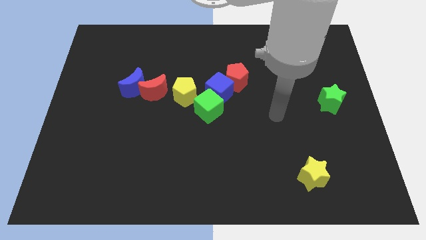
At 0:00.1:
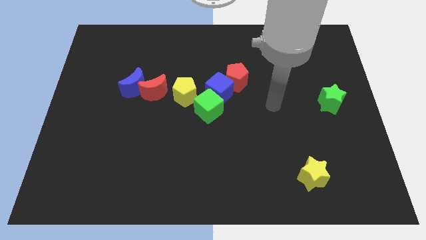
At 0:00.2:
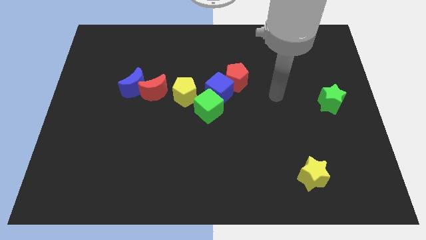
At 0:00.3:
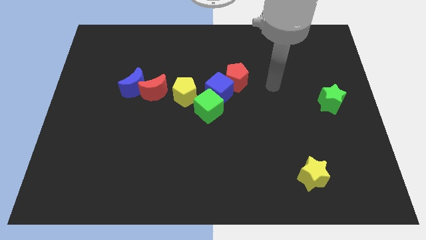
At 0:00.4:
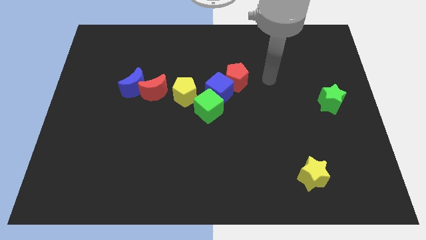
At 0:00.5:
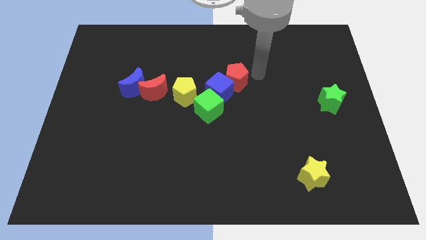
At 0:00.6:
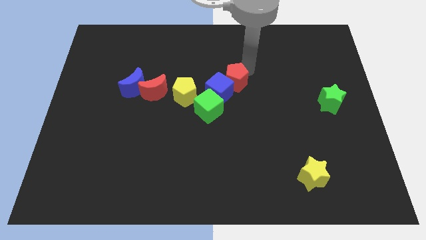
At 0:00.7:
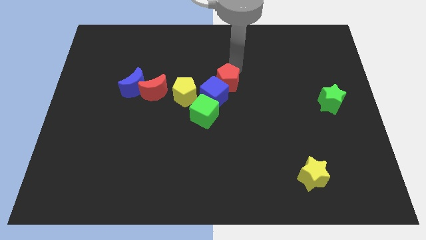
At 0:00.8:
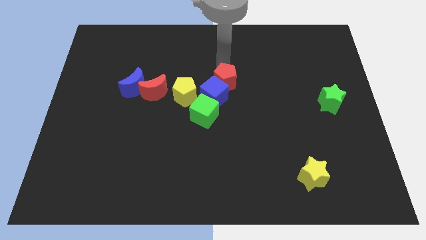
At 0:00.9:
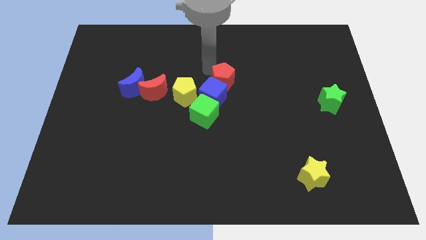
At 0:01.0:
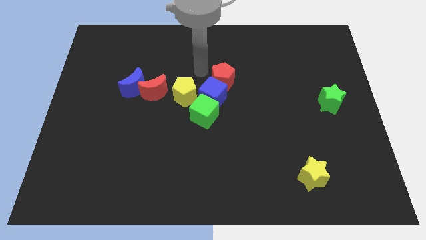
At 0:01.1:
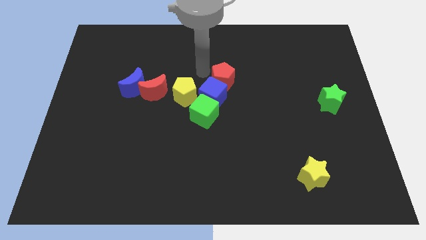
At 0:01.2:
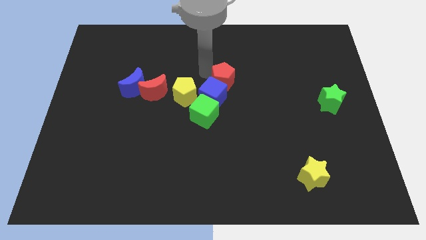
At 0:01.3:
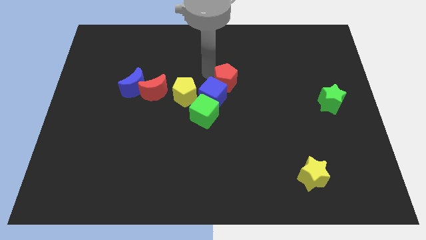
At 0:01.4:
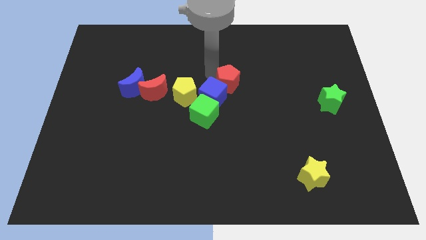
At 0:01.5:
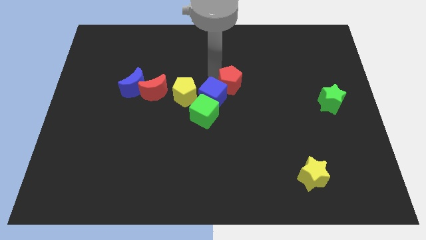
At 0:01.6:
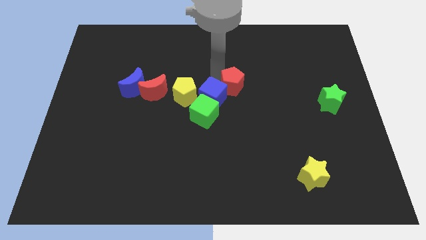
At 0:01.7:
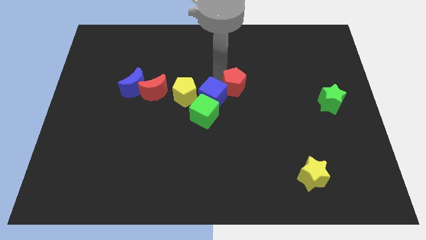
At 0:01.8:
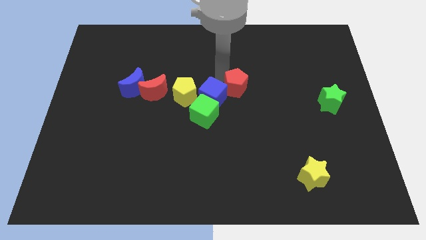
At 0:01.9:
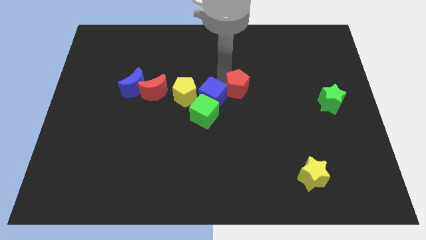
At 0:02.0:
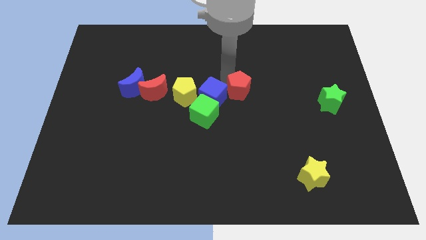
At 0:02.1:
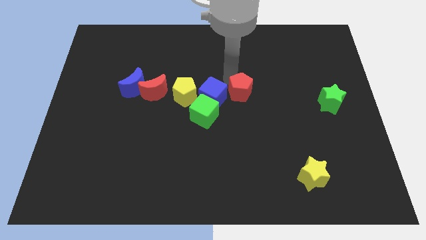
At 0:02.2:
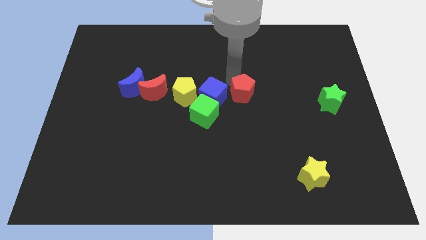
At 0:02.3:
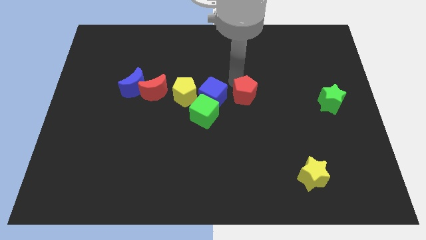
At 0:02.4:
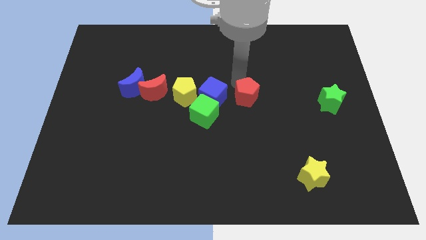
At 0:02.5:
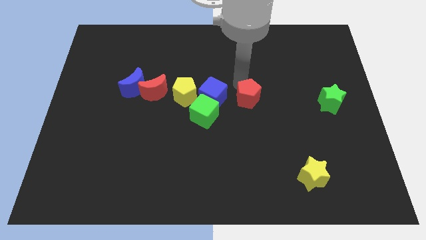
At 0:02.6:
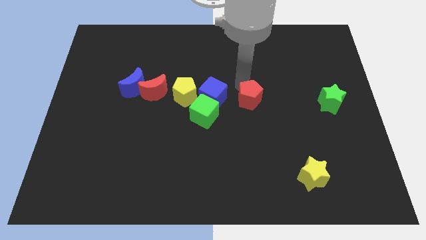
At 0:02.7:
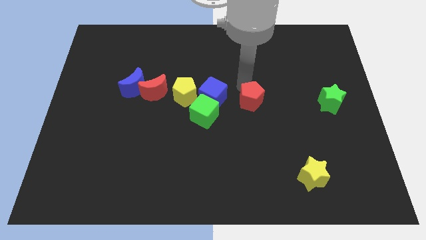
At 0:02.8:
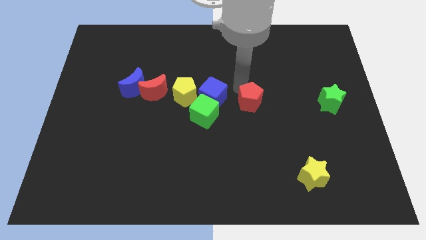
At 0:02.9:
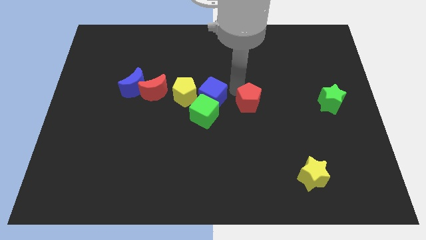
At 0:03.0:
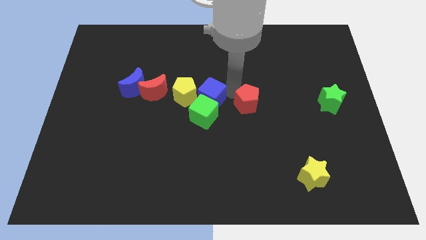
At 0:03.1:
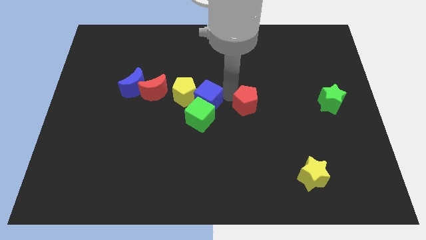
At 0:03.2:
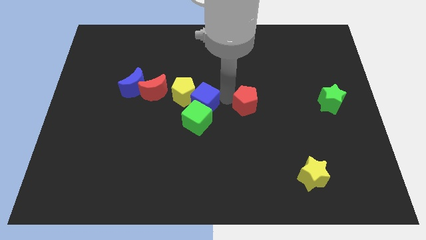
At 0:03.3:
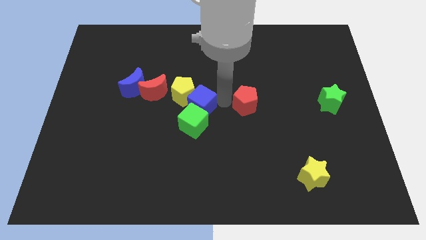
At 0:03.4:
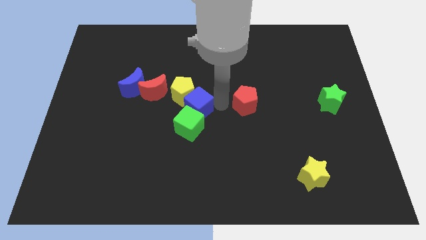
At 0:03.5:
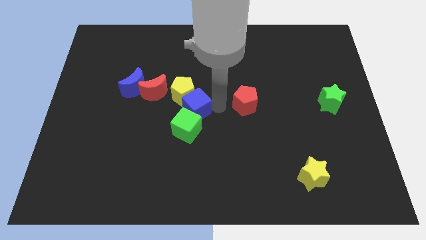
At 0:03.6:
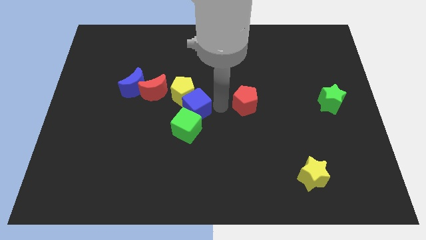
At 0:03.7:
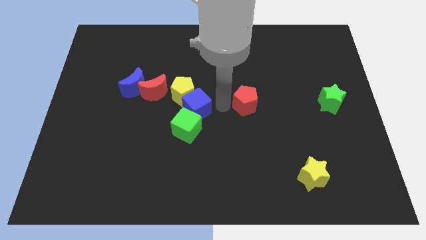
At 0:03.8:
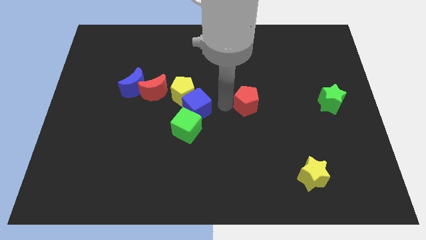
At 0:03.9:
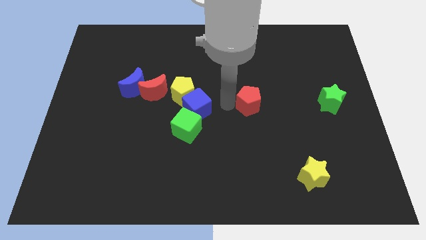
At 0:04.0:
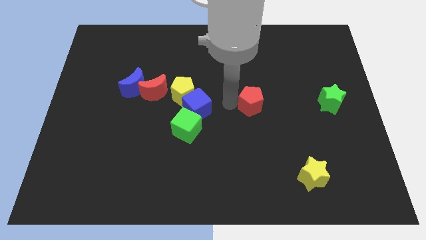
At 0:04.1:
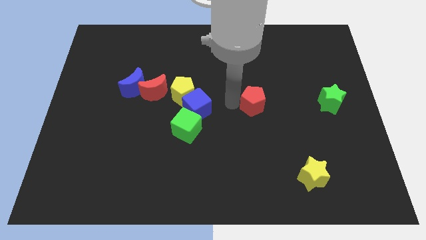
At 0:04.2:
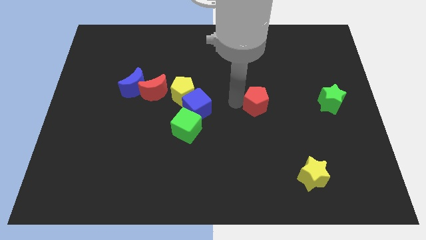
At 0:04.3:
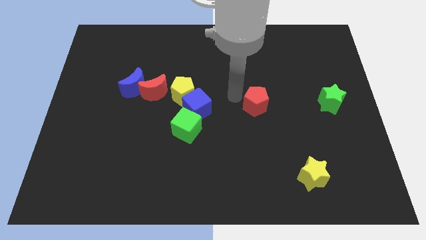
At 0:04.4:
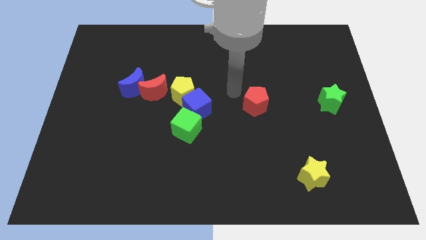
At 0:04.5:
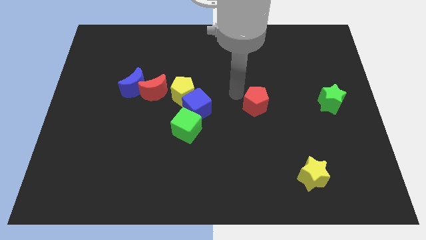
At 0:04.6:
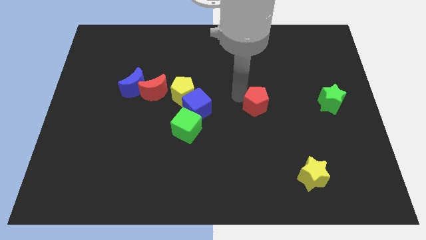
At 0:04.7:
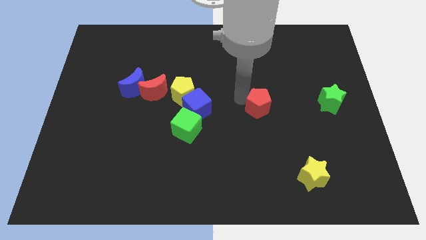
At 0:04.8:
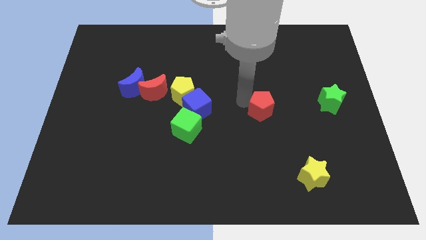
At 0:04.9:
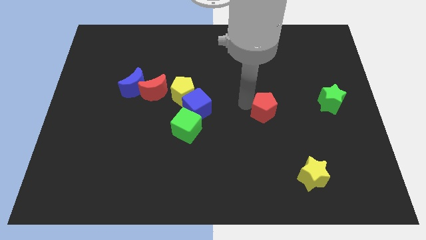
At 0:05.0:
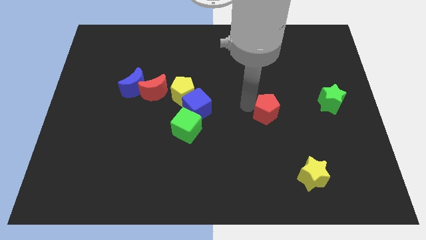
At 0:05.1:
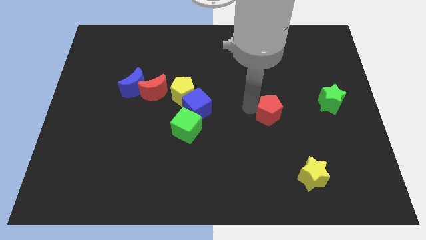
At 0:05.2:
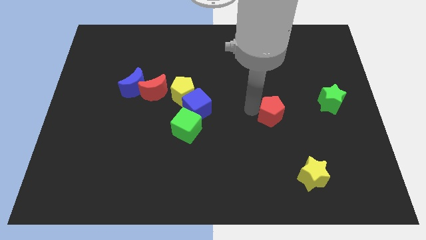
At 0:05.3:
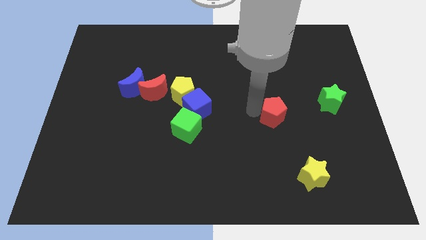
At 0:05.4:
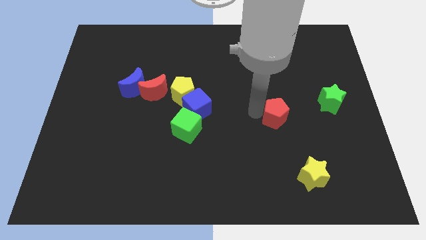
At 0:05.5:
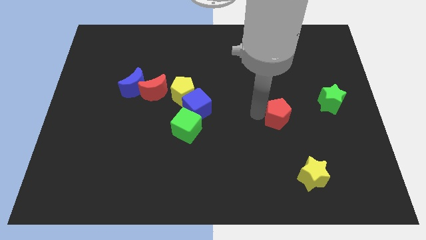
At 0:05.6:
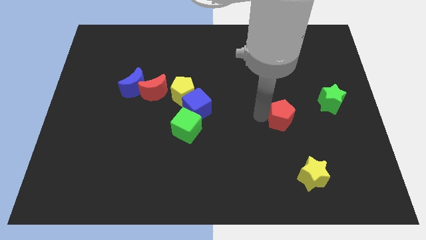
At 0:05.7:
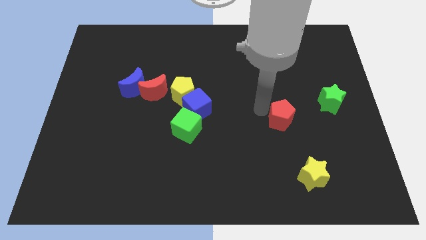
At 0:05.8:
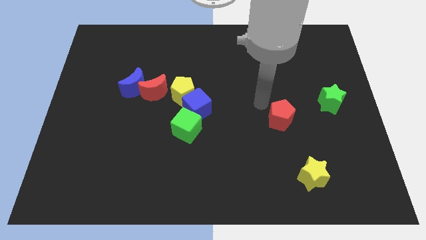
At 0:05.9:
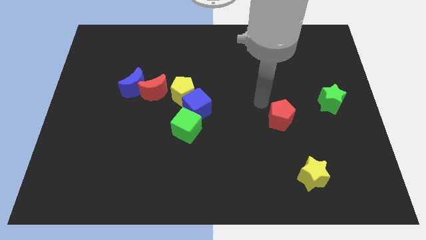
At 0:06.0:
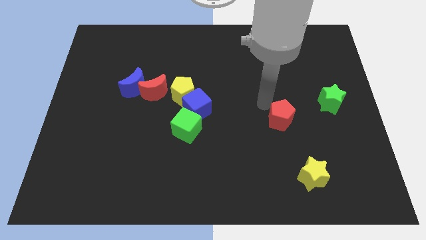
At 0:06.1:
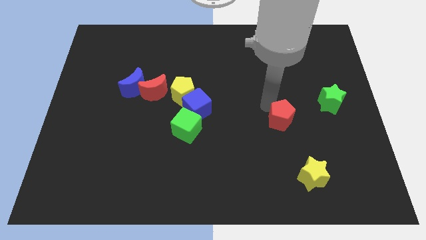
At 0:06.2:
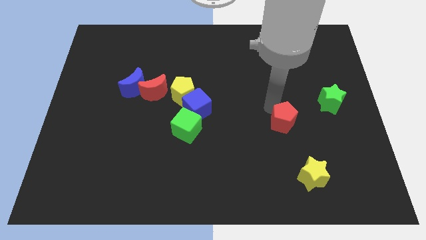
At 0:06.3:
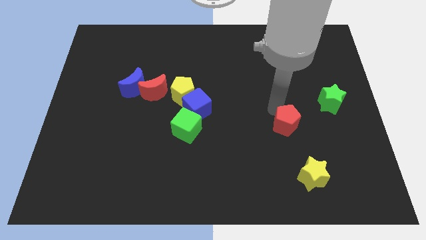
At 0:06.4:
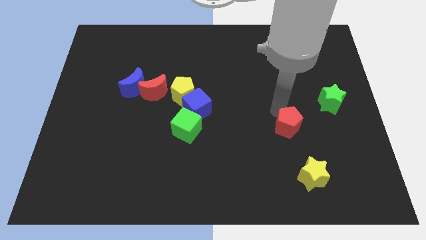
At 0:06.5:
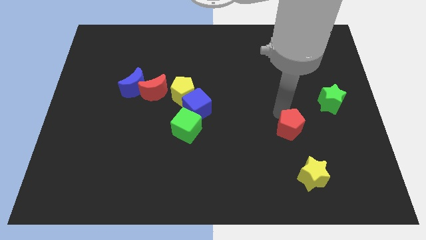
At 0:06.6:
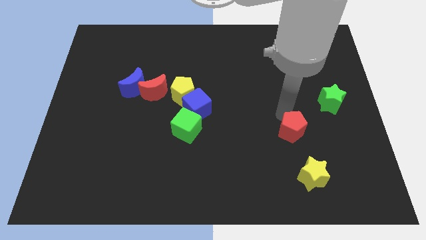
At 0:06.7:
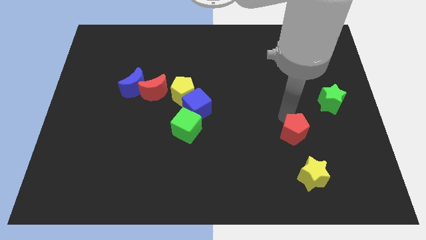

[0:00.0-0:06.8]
move the red pentagon down and then to the right

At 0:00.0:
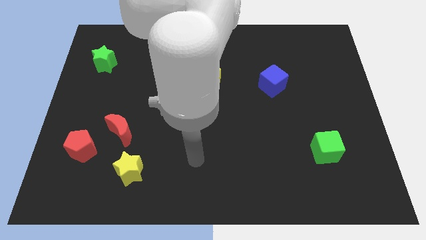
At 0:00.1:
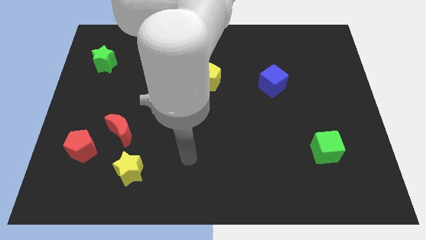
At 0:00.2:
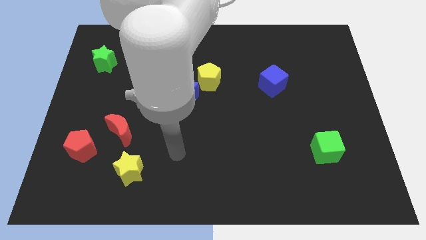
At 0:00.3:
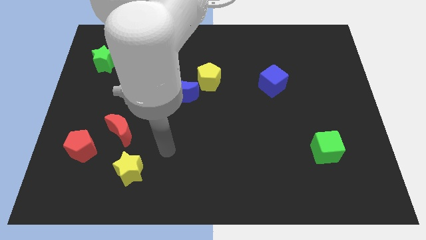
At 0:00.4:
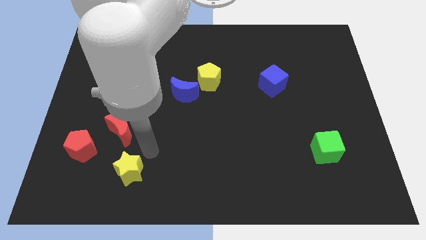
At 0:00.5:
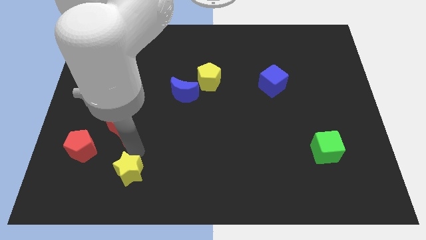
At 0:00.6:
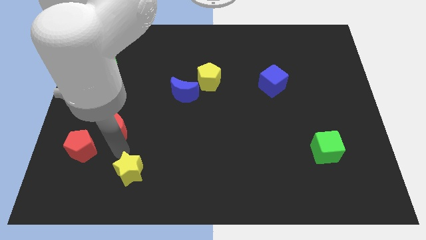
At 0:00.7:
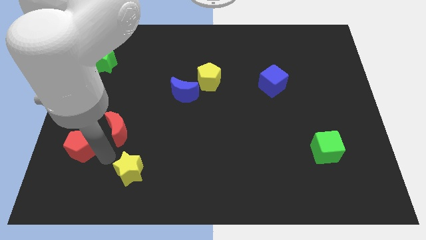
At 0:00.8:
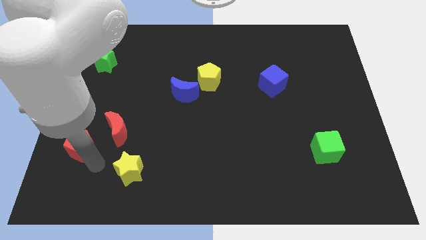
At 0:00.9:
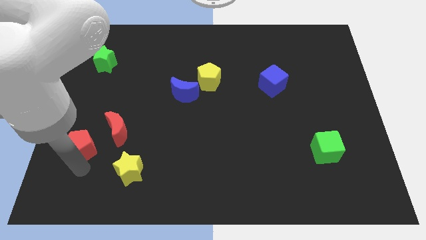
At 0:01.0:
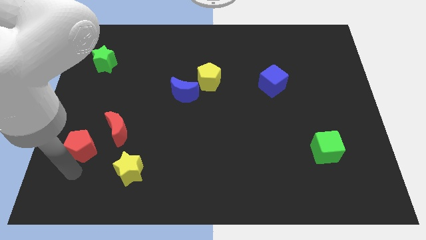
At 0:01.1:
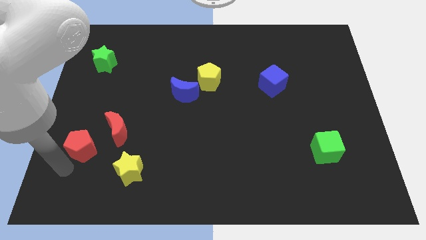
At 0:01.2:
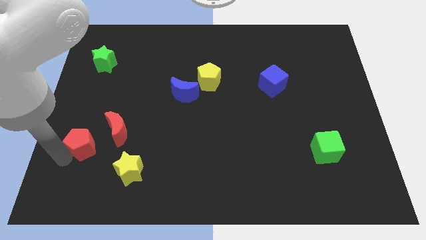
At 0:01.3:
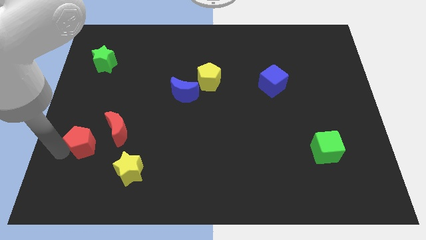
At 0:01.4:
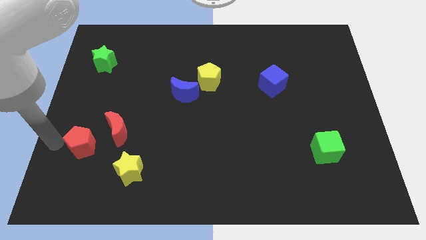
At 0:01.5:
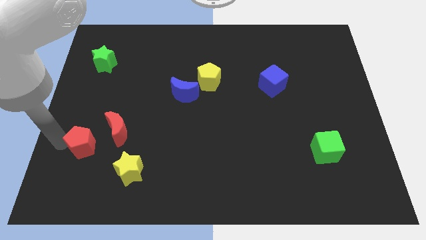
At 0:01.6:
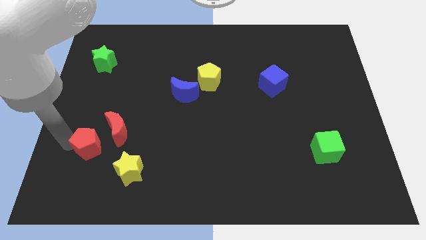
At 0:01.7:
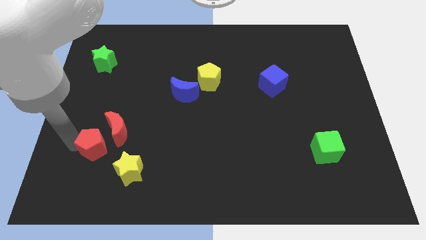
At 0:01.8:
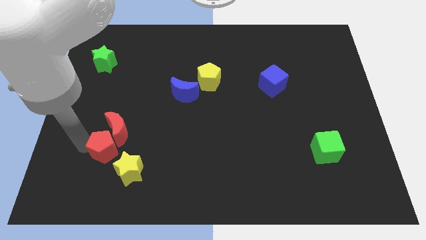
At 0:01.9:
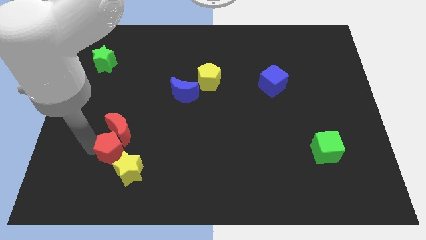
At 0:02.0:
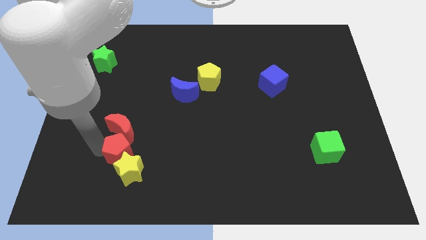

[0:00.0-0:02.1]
slide the red pentagon a little bit to the right
